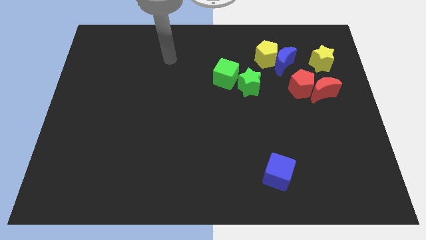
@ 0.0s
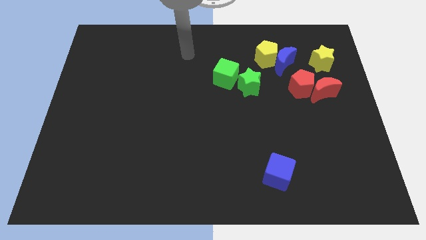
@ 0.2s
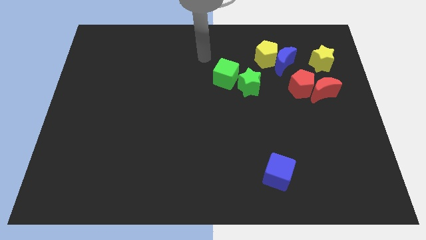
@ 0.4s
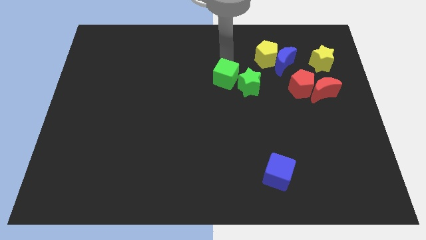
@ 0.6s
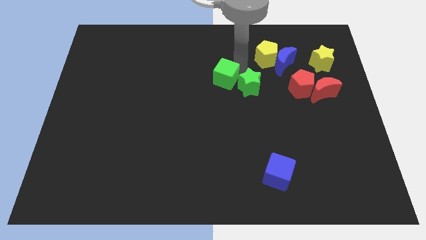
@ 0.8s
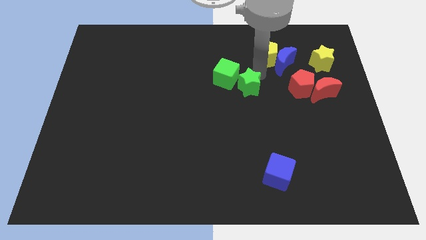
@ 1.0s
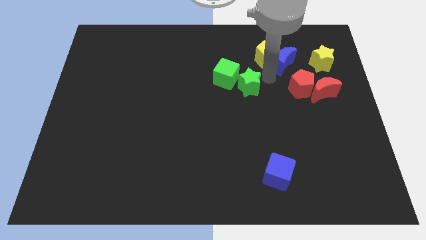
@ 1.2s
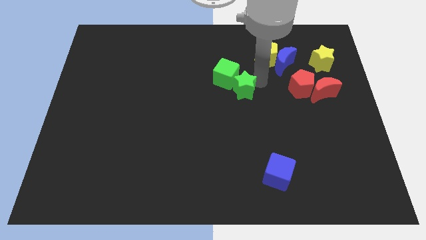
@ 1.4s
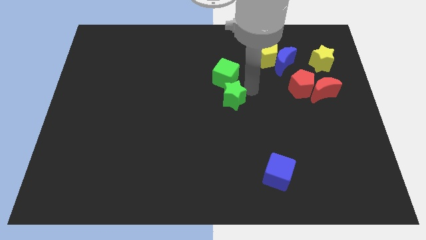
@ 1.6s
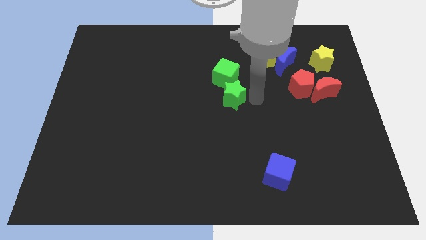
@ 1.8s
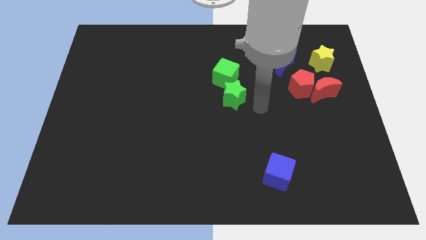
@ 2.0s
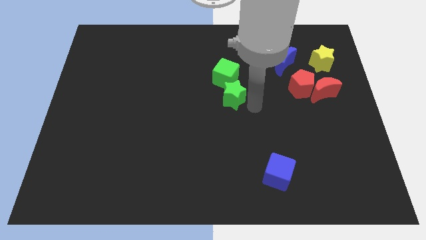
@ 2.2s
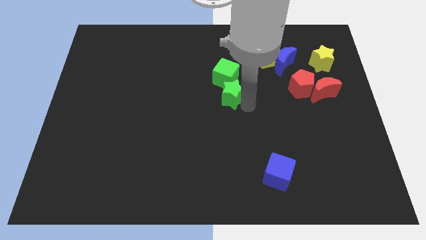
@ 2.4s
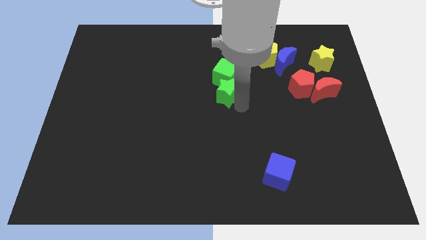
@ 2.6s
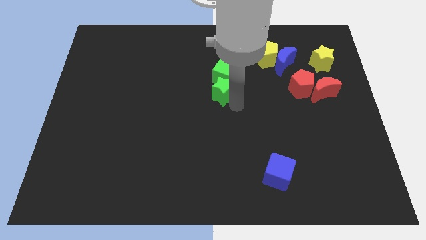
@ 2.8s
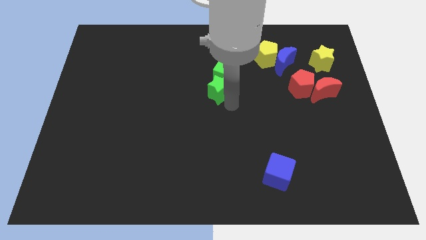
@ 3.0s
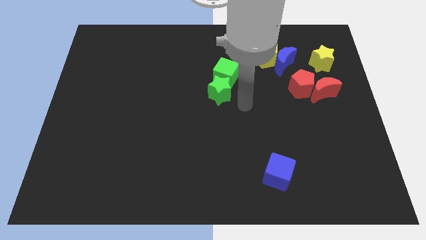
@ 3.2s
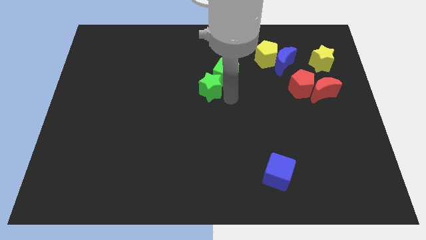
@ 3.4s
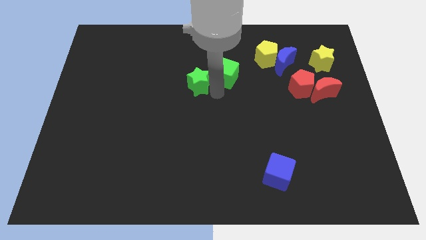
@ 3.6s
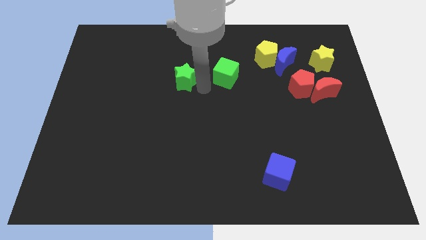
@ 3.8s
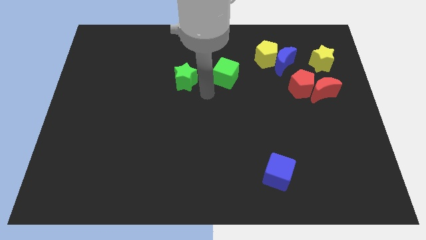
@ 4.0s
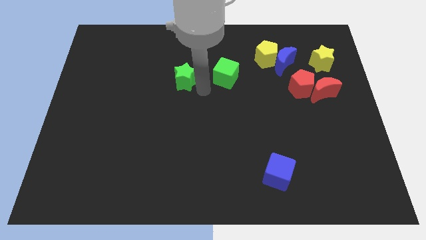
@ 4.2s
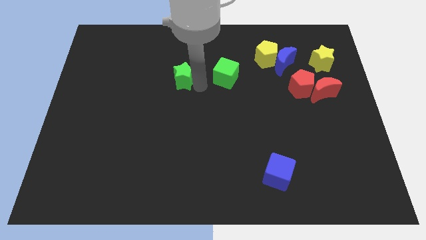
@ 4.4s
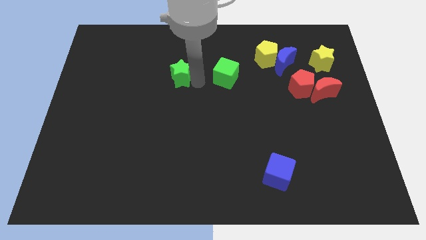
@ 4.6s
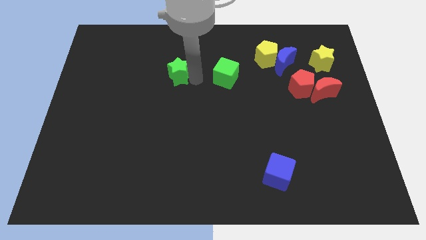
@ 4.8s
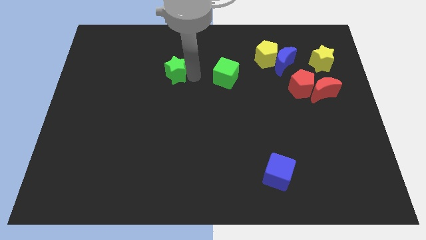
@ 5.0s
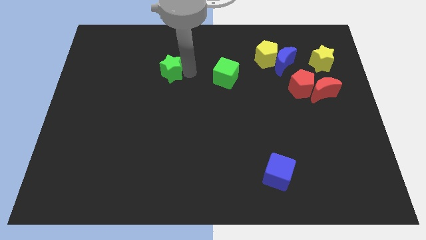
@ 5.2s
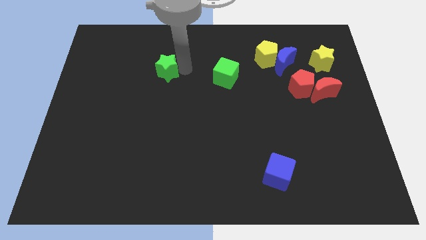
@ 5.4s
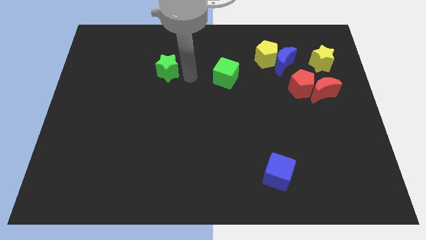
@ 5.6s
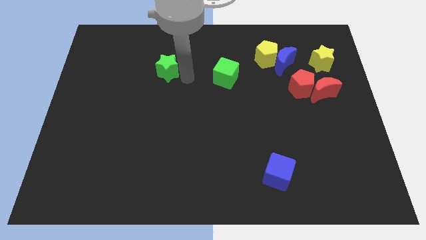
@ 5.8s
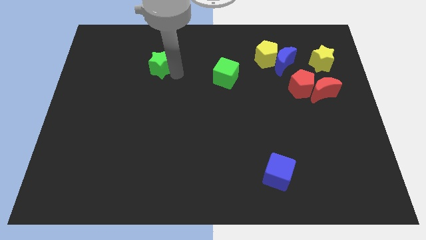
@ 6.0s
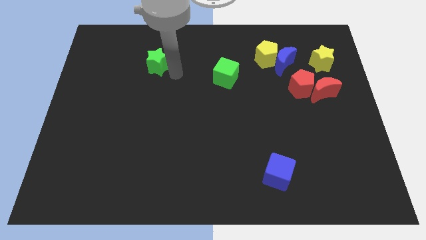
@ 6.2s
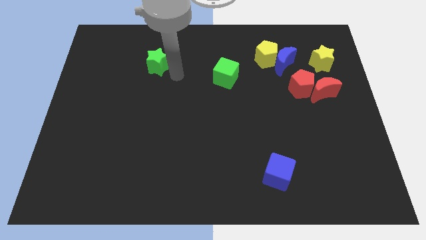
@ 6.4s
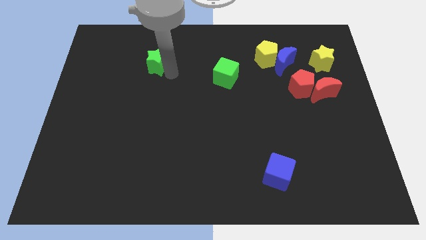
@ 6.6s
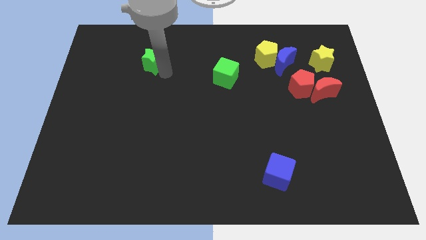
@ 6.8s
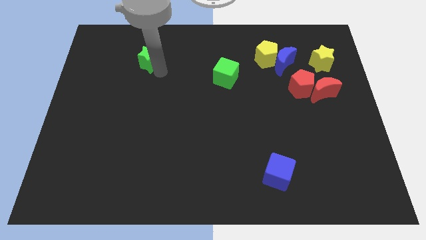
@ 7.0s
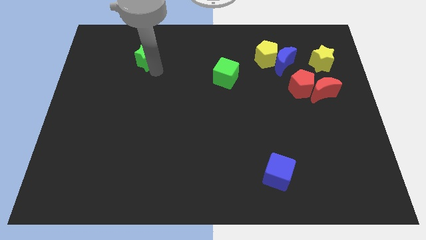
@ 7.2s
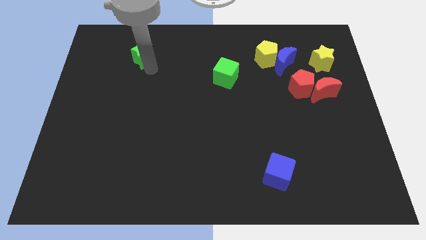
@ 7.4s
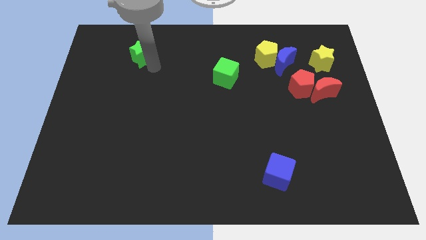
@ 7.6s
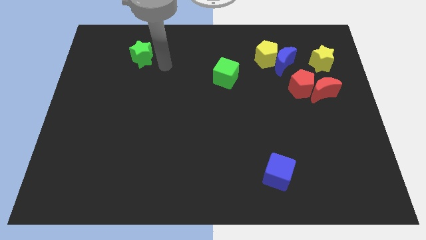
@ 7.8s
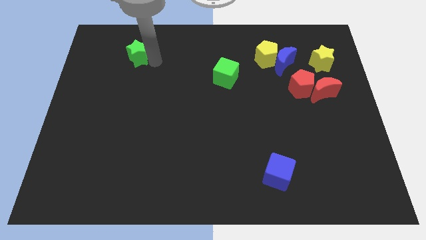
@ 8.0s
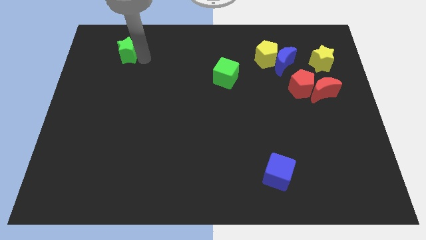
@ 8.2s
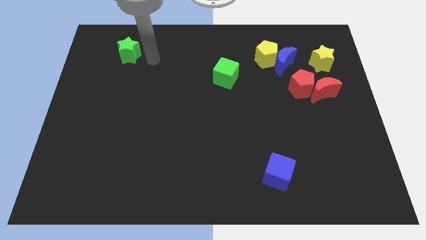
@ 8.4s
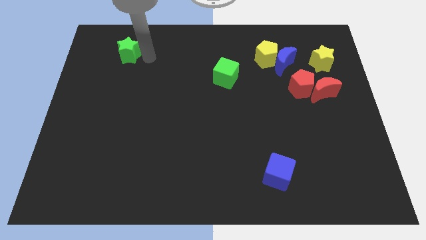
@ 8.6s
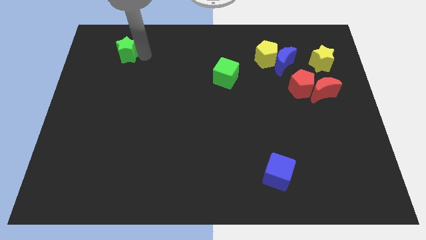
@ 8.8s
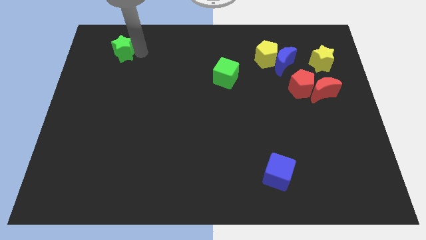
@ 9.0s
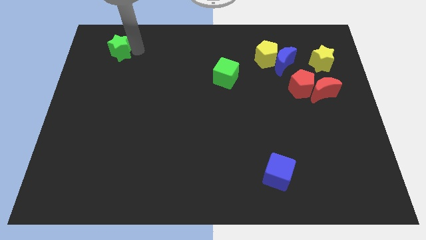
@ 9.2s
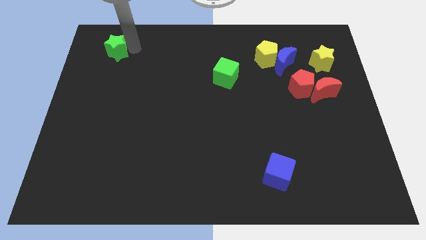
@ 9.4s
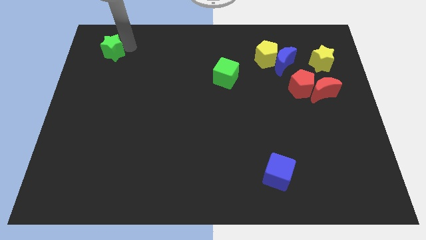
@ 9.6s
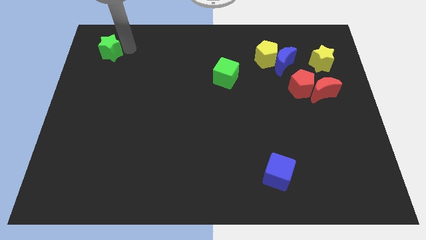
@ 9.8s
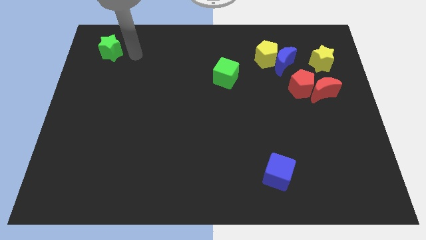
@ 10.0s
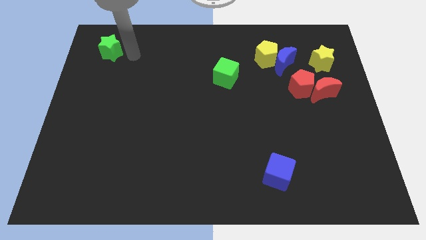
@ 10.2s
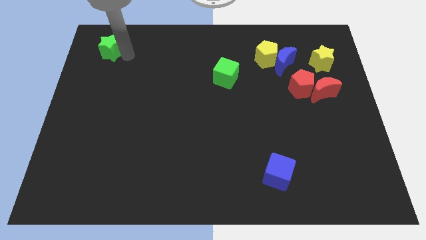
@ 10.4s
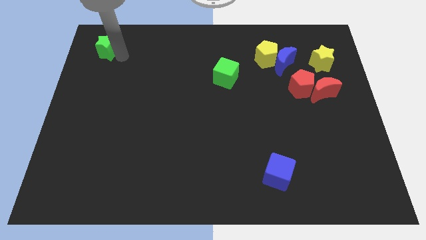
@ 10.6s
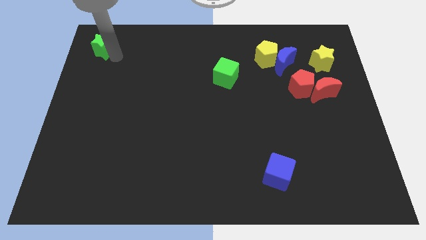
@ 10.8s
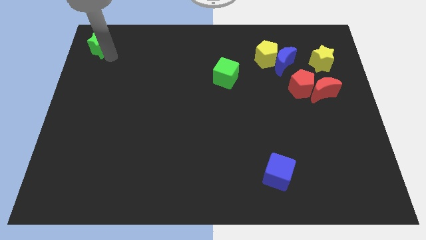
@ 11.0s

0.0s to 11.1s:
move the green star to the top left of the board

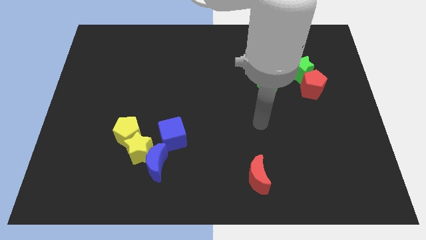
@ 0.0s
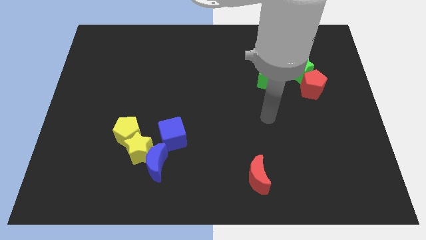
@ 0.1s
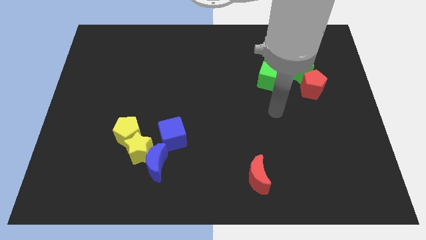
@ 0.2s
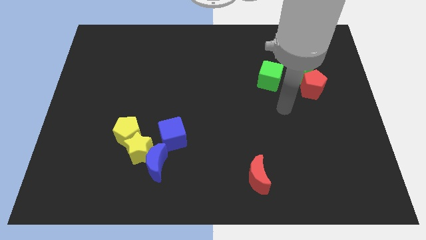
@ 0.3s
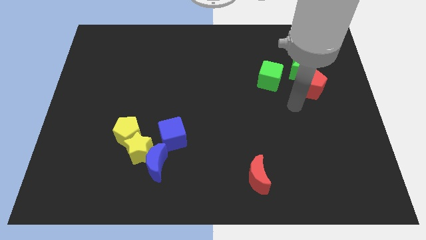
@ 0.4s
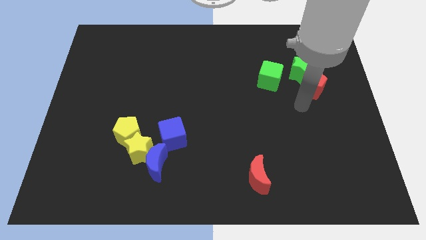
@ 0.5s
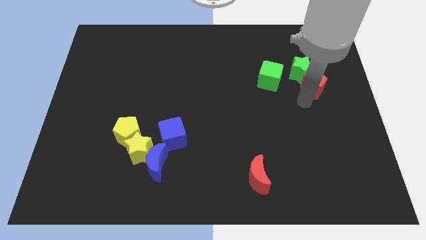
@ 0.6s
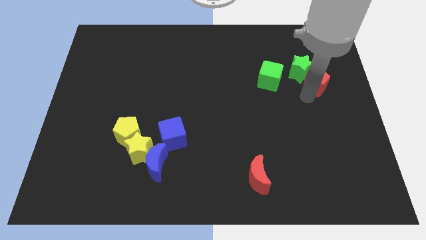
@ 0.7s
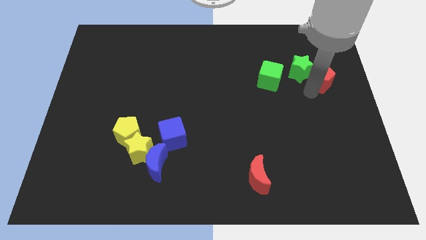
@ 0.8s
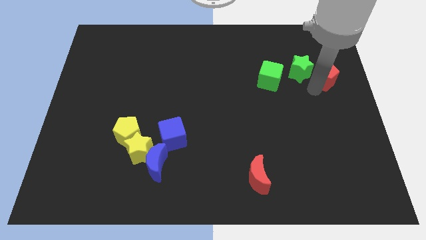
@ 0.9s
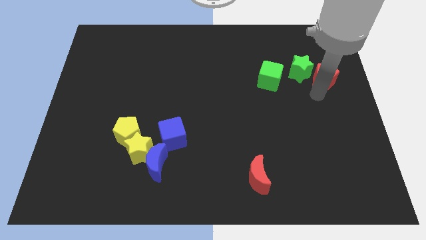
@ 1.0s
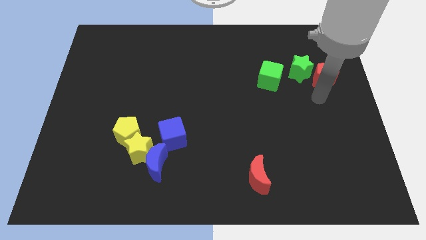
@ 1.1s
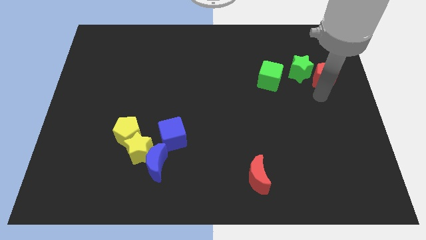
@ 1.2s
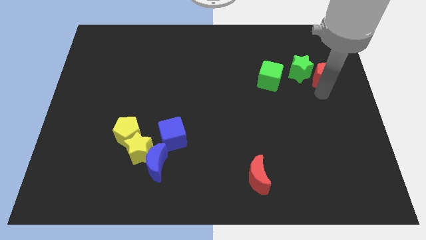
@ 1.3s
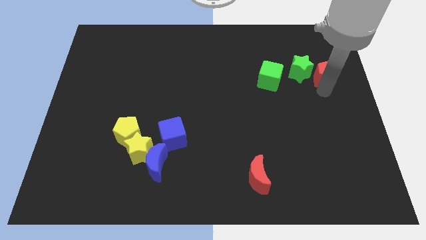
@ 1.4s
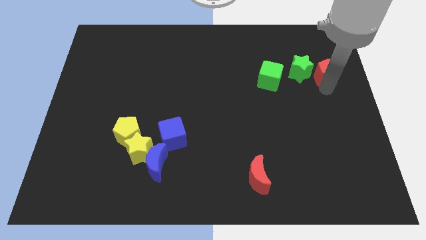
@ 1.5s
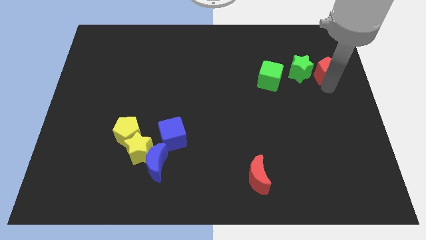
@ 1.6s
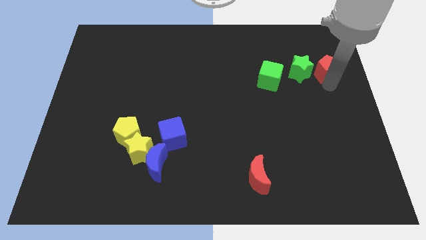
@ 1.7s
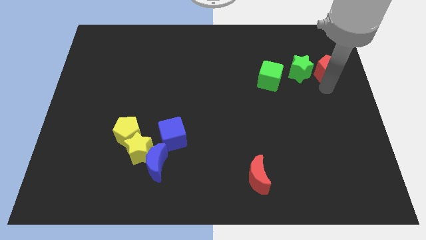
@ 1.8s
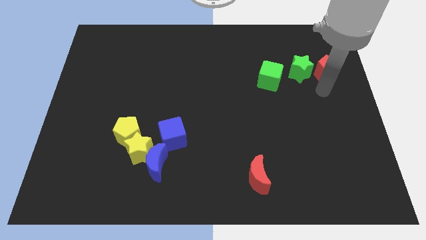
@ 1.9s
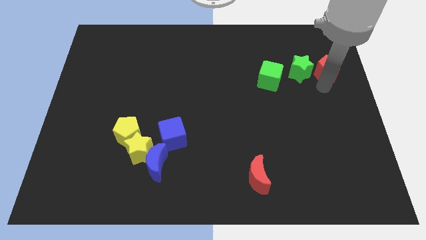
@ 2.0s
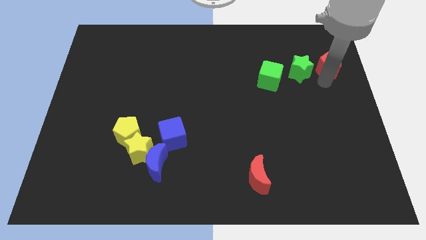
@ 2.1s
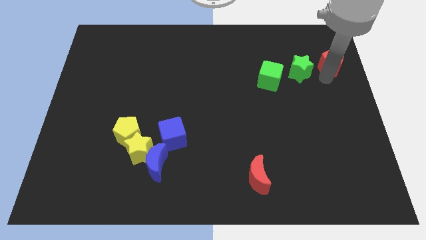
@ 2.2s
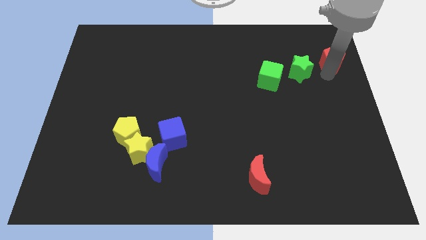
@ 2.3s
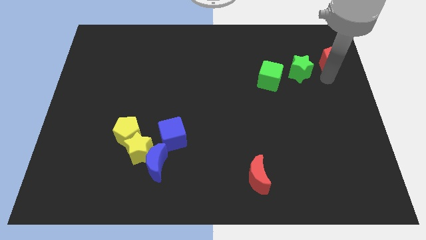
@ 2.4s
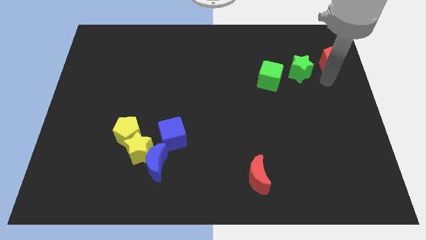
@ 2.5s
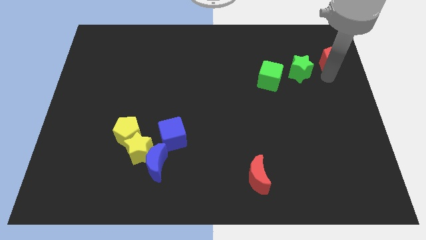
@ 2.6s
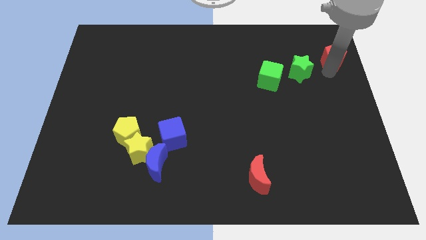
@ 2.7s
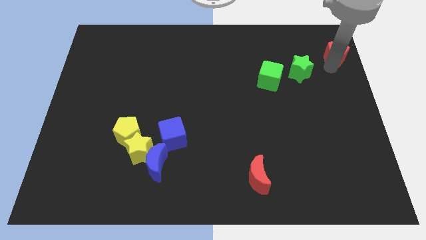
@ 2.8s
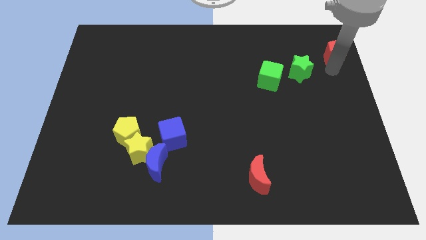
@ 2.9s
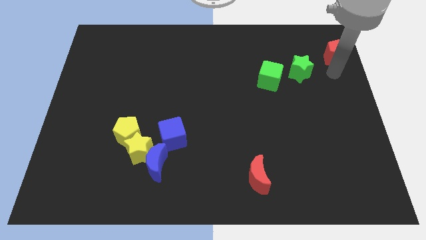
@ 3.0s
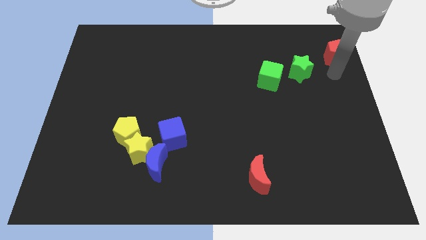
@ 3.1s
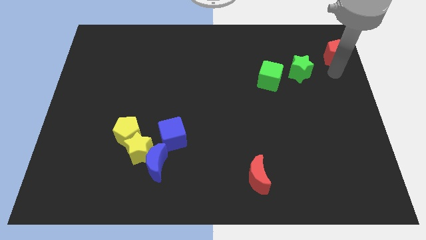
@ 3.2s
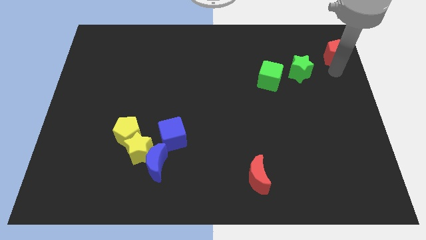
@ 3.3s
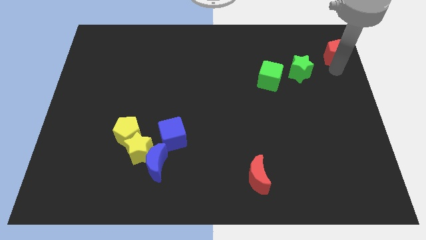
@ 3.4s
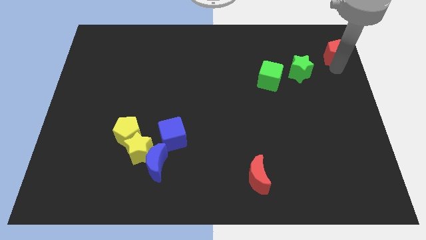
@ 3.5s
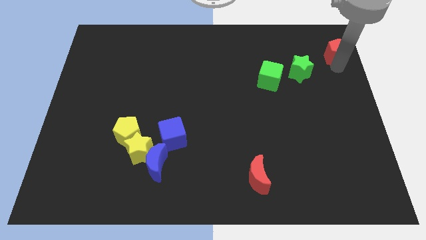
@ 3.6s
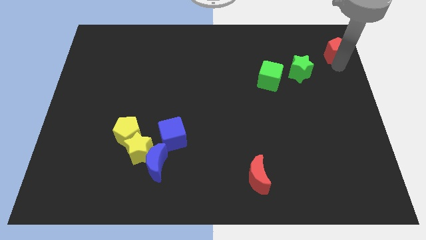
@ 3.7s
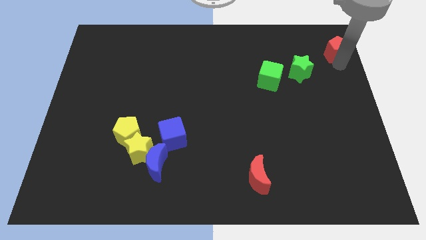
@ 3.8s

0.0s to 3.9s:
put the red pentagon to the top right of the board
